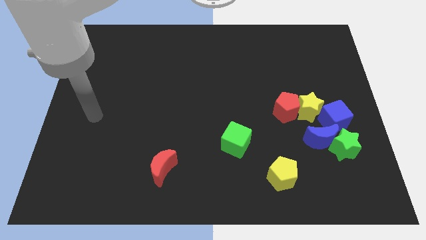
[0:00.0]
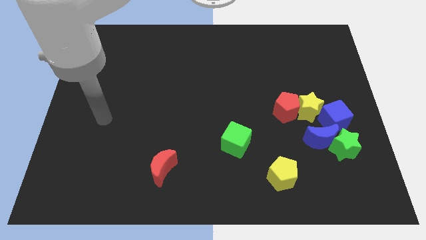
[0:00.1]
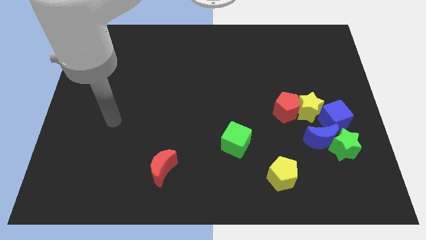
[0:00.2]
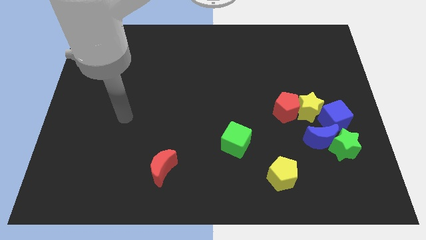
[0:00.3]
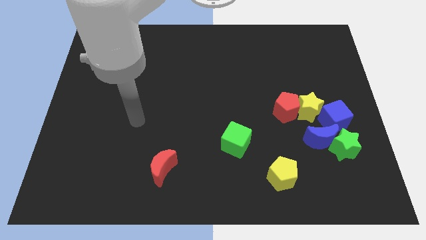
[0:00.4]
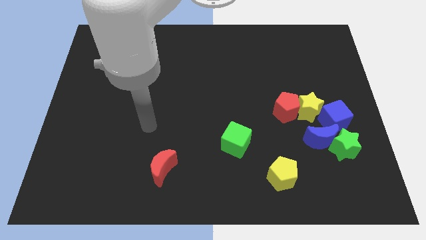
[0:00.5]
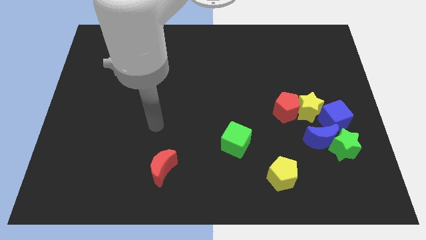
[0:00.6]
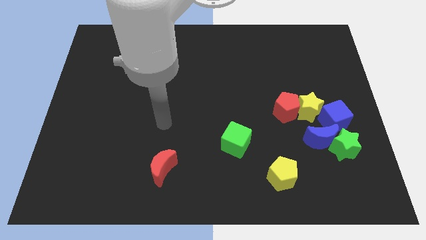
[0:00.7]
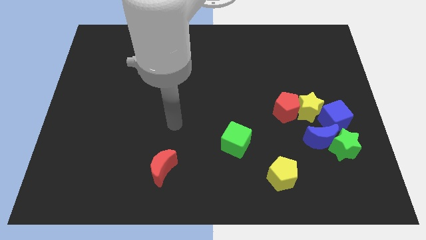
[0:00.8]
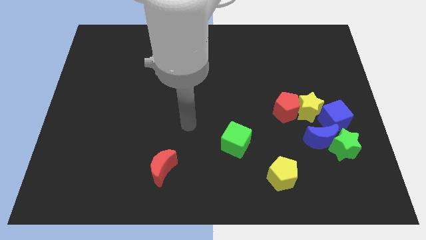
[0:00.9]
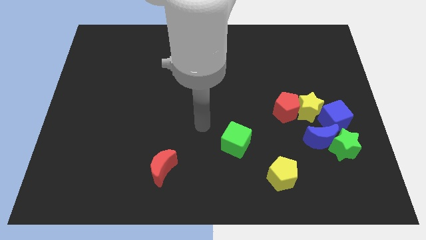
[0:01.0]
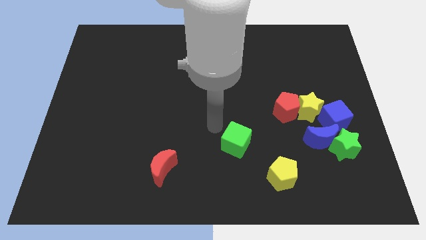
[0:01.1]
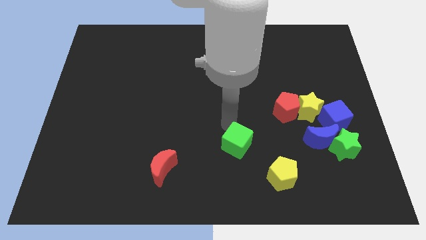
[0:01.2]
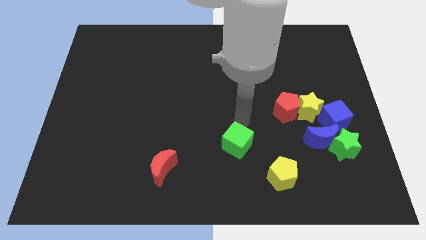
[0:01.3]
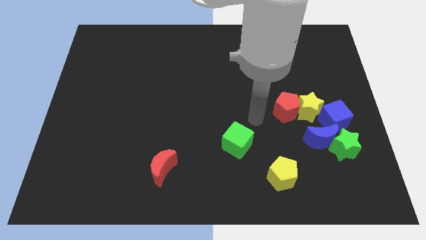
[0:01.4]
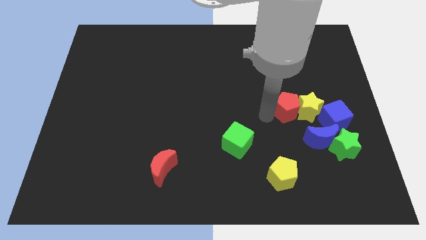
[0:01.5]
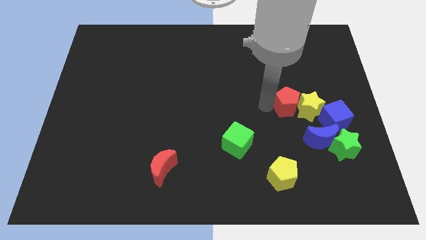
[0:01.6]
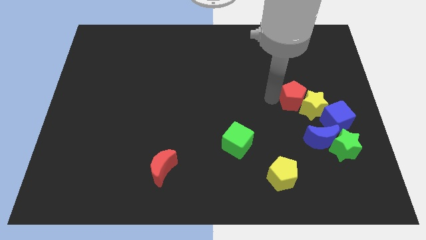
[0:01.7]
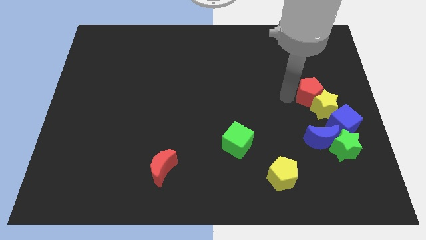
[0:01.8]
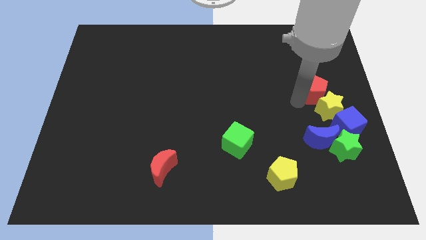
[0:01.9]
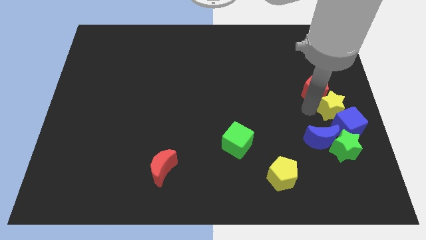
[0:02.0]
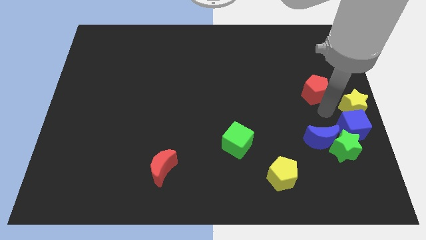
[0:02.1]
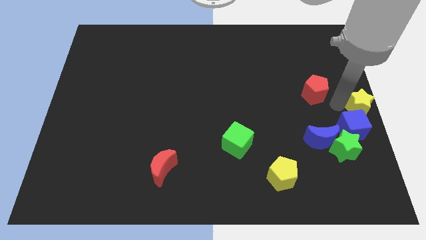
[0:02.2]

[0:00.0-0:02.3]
pull the red pentagon apart from the yellow star

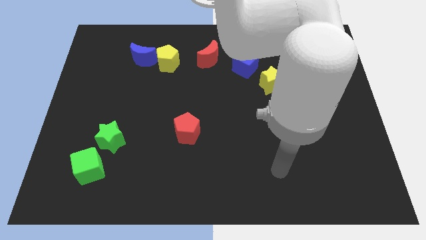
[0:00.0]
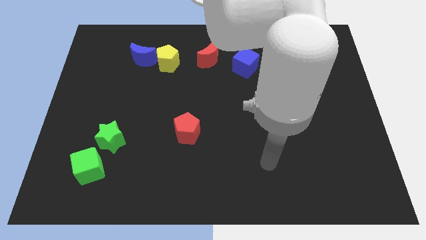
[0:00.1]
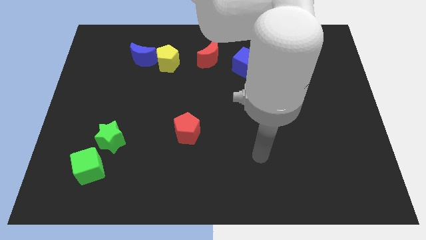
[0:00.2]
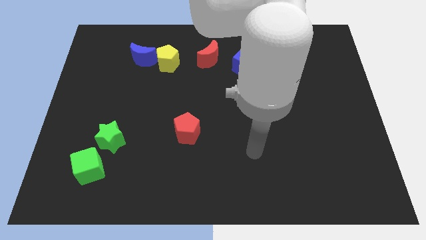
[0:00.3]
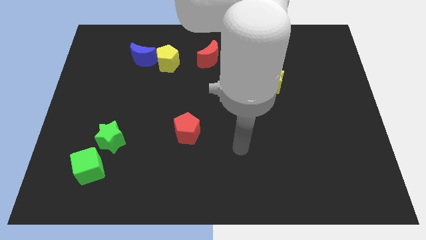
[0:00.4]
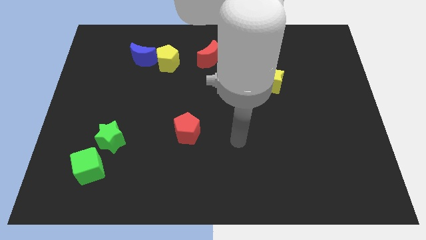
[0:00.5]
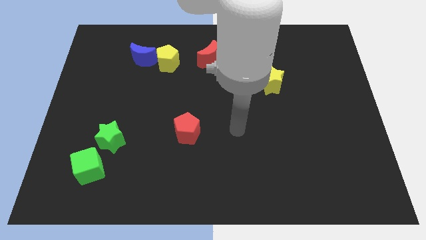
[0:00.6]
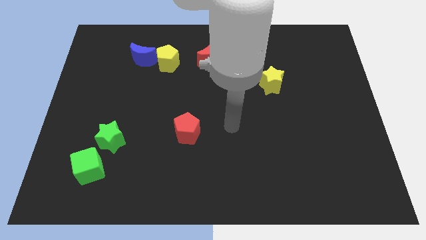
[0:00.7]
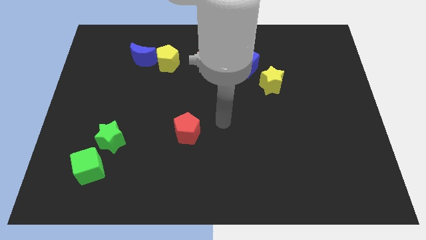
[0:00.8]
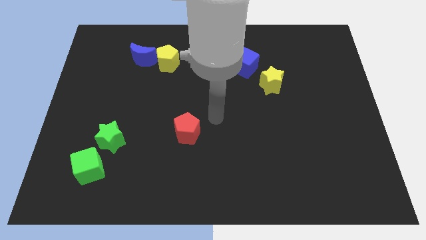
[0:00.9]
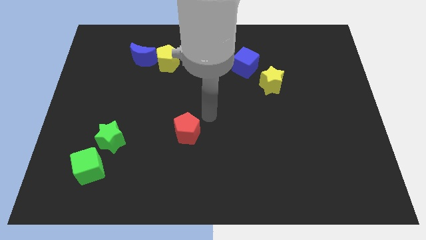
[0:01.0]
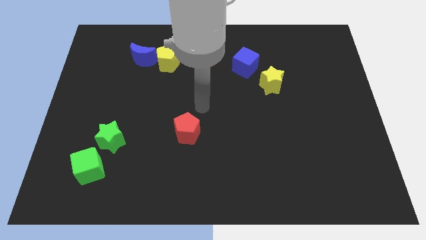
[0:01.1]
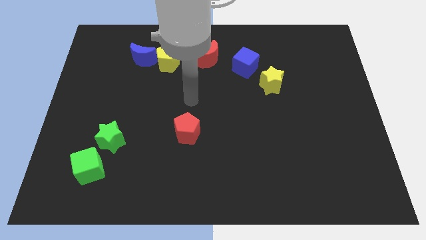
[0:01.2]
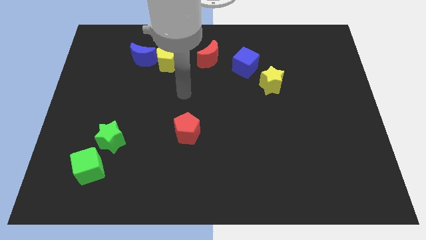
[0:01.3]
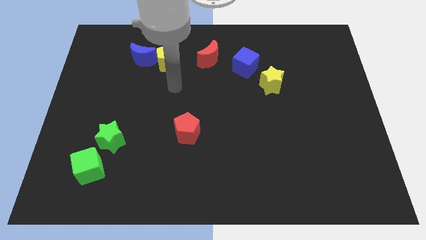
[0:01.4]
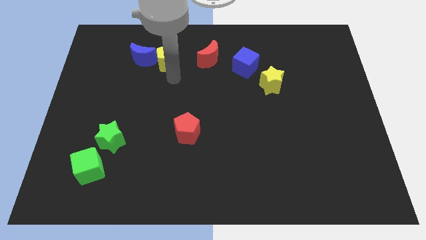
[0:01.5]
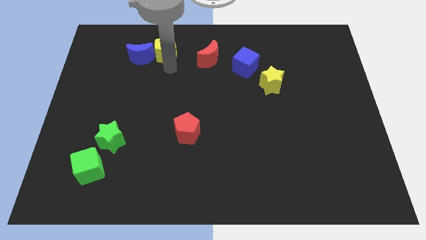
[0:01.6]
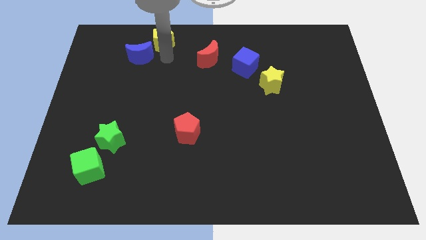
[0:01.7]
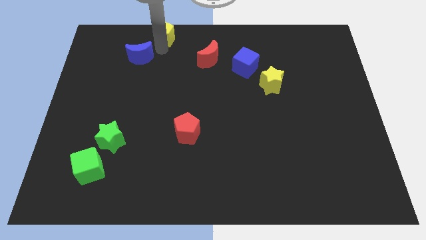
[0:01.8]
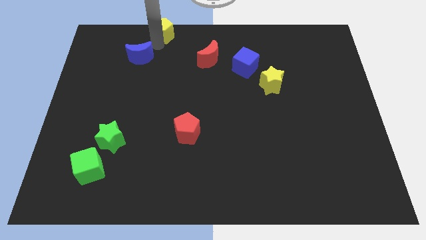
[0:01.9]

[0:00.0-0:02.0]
move the blue moon away from the yellow pentagon

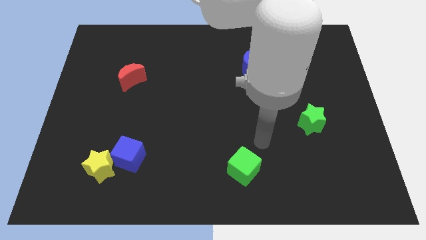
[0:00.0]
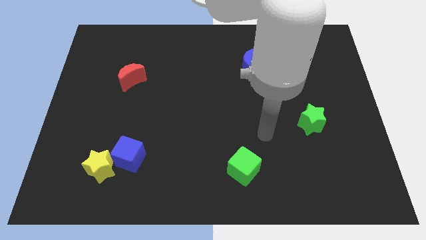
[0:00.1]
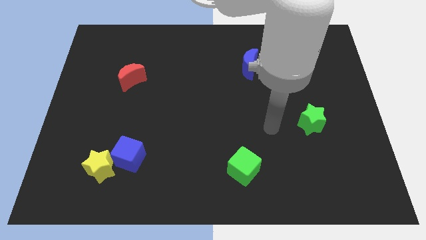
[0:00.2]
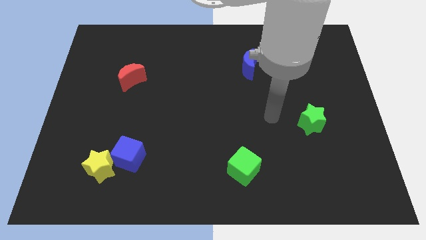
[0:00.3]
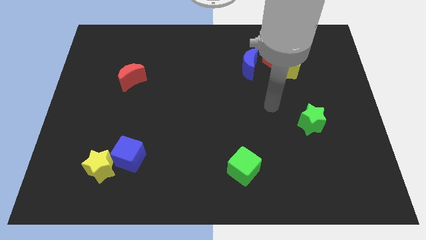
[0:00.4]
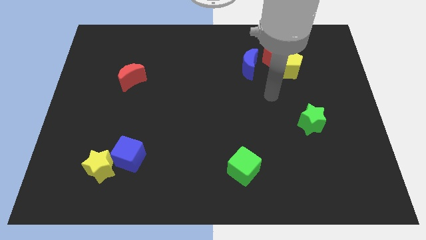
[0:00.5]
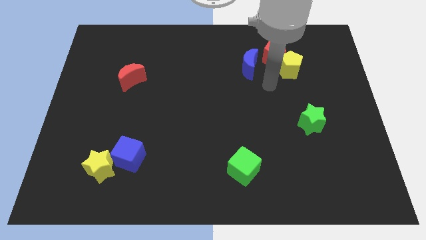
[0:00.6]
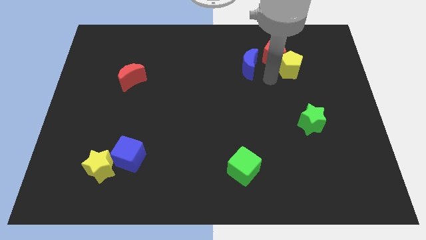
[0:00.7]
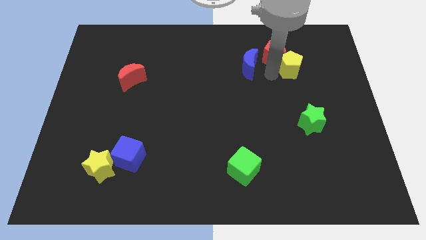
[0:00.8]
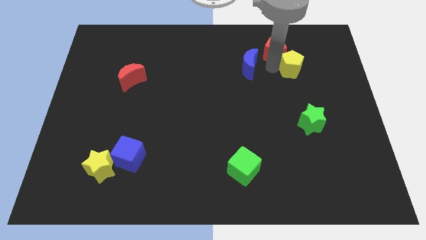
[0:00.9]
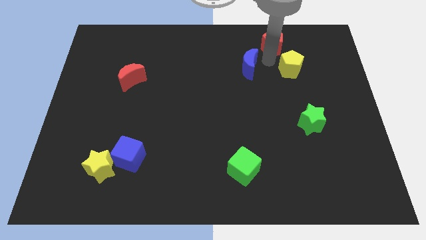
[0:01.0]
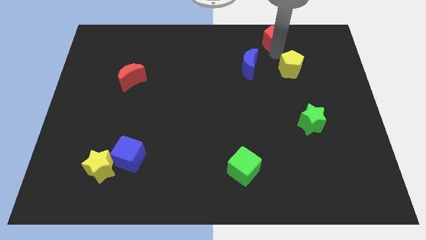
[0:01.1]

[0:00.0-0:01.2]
separate the yellow pentagon from the red pentagon

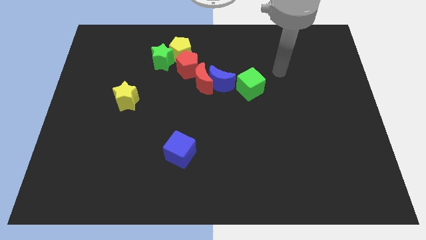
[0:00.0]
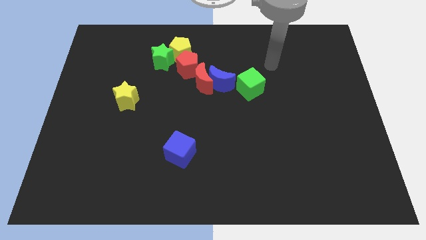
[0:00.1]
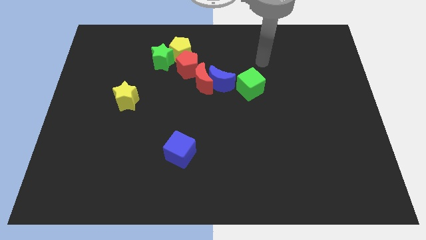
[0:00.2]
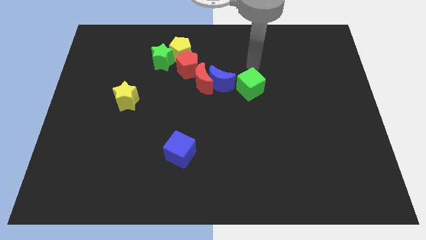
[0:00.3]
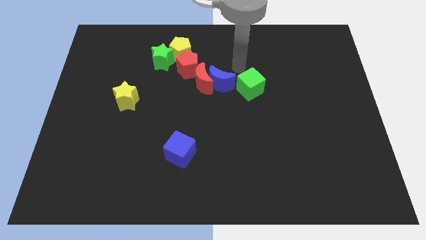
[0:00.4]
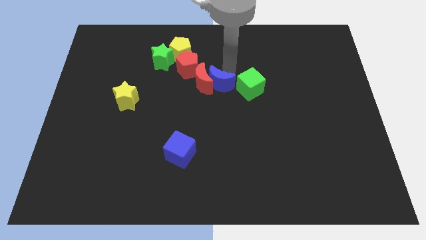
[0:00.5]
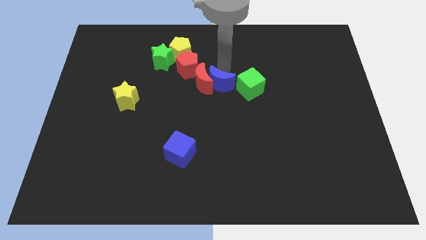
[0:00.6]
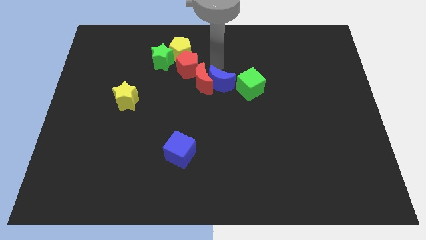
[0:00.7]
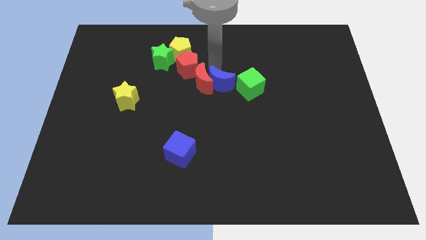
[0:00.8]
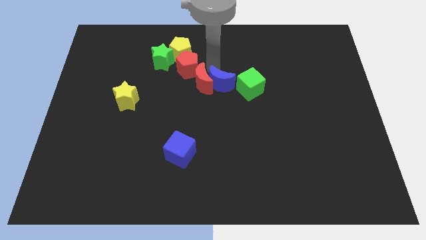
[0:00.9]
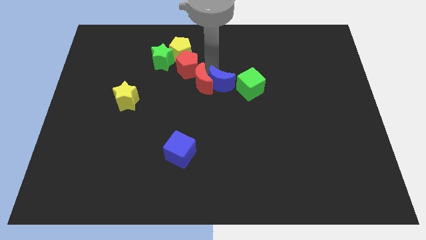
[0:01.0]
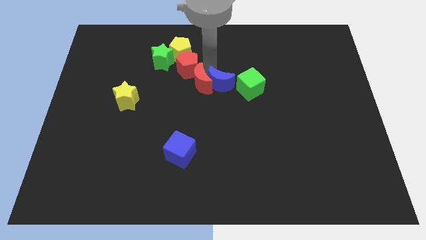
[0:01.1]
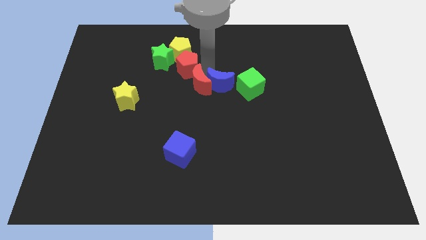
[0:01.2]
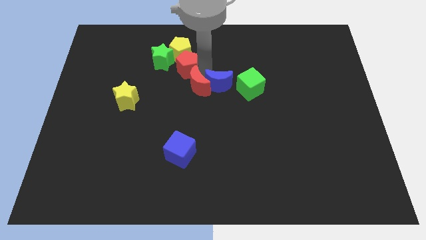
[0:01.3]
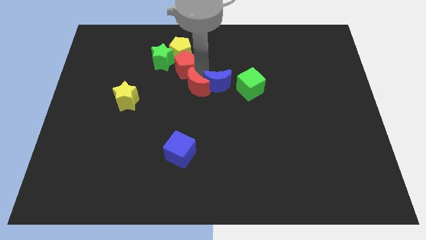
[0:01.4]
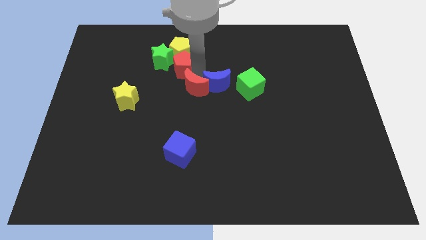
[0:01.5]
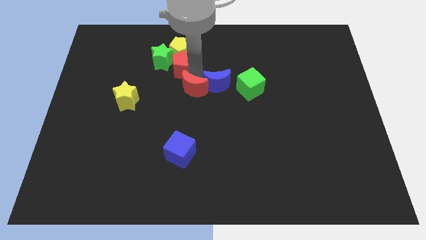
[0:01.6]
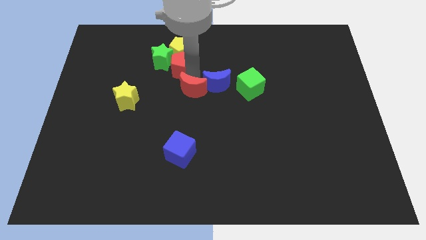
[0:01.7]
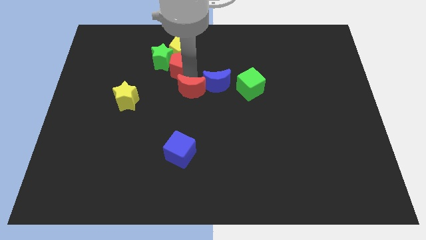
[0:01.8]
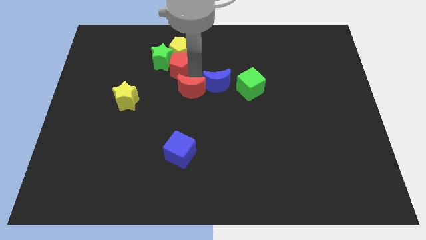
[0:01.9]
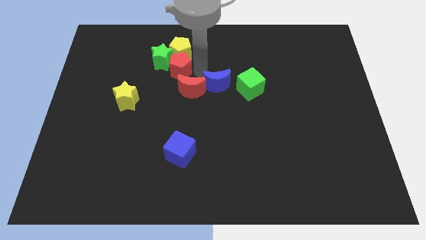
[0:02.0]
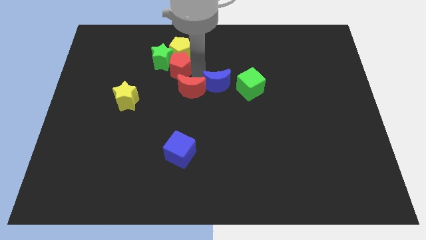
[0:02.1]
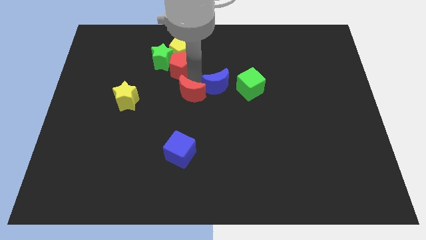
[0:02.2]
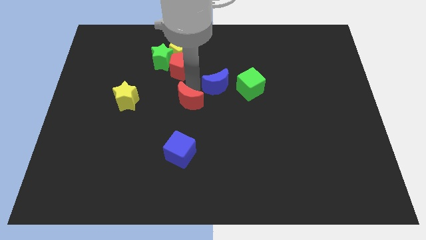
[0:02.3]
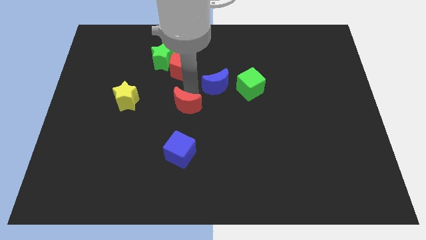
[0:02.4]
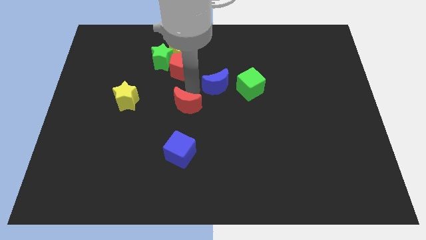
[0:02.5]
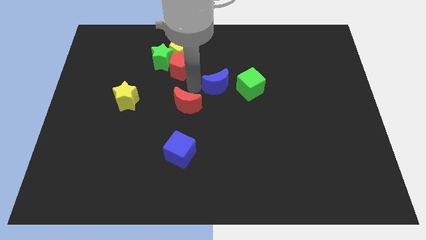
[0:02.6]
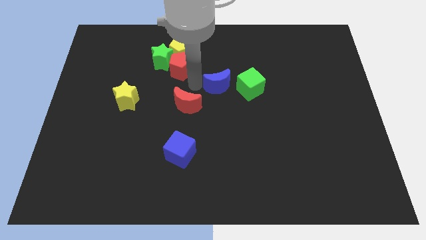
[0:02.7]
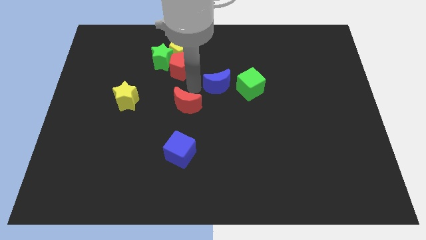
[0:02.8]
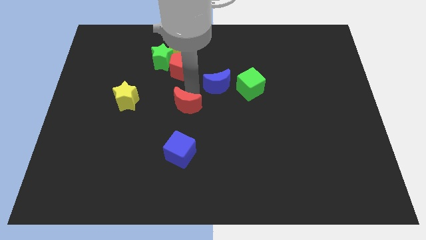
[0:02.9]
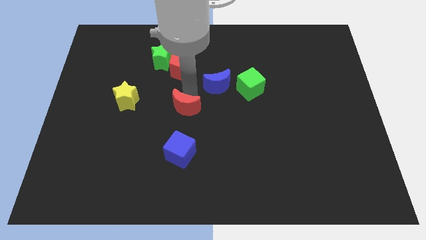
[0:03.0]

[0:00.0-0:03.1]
pull the red moon apart from the blue moon and red pentagon

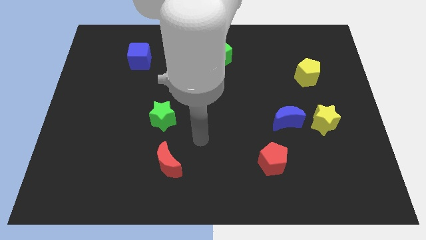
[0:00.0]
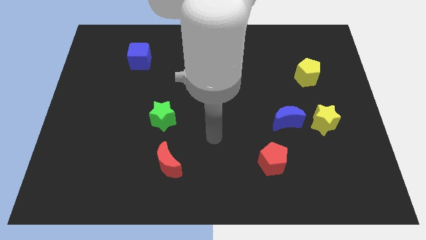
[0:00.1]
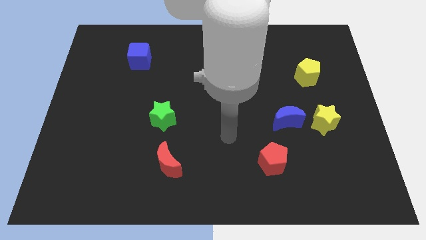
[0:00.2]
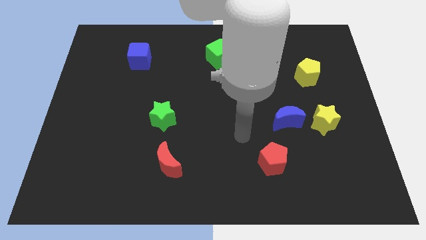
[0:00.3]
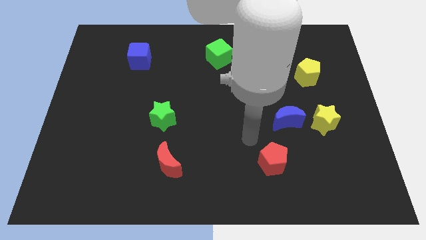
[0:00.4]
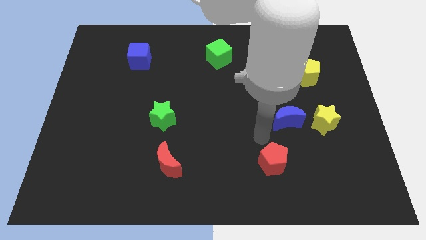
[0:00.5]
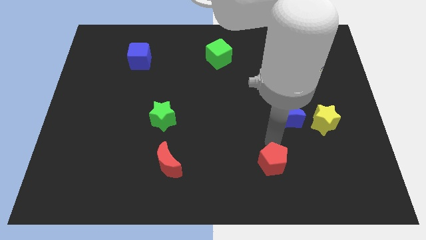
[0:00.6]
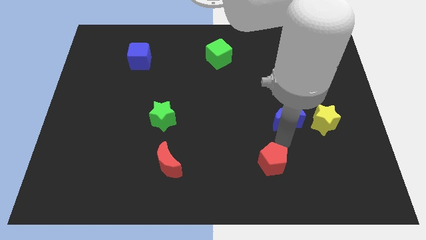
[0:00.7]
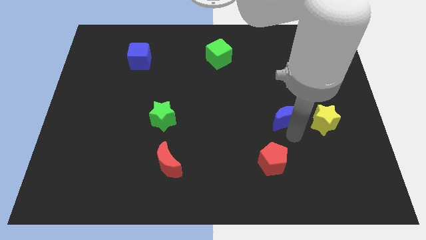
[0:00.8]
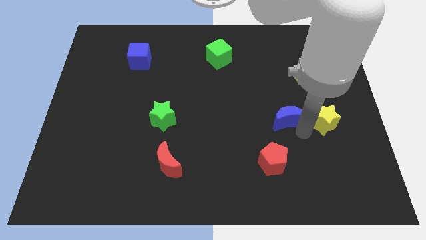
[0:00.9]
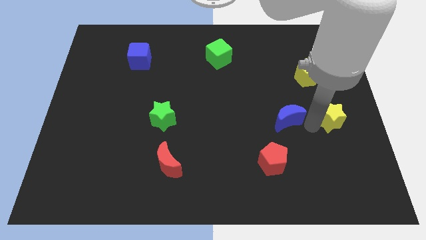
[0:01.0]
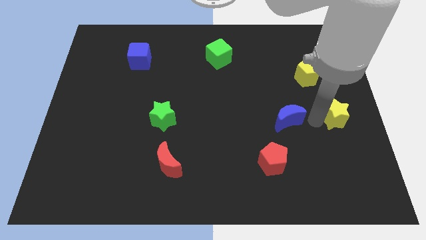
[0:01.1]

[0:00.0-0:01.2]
pull the blue moon apart from the yellow star
